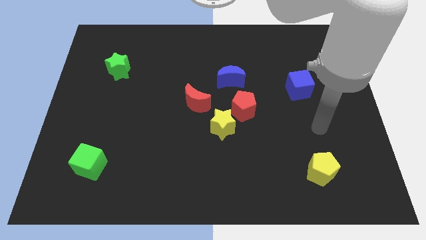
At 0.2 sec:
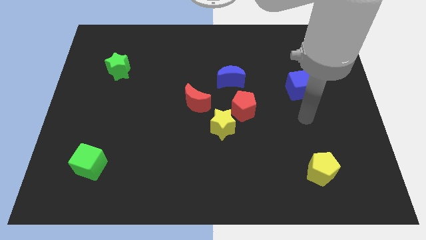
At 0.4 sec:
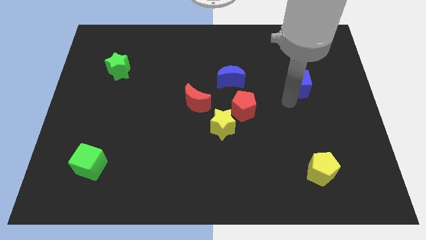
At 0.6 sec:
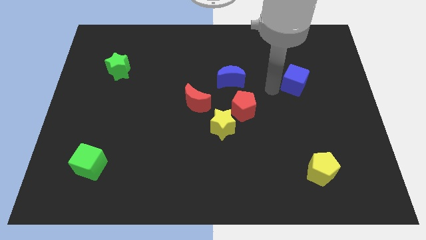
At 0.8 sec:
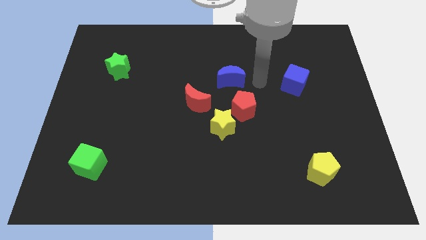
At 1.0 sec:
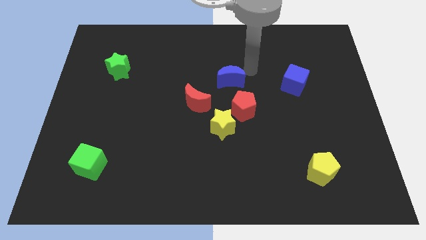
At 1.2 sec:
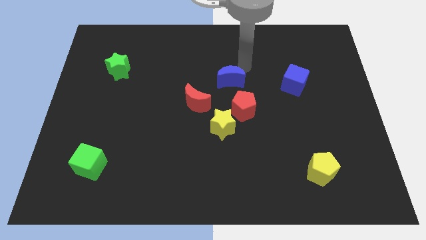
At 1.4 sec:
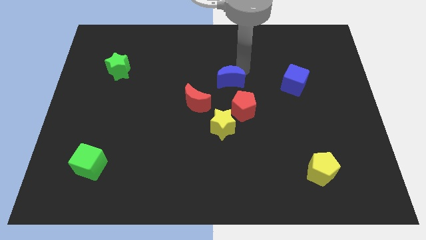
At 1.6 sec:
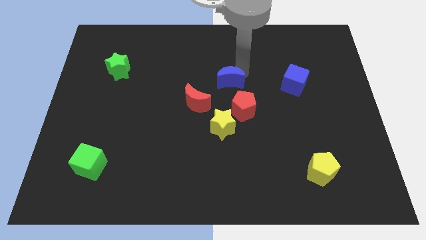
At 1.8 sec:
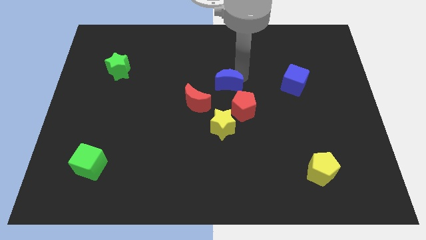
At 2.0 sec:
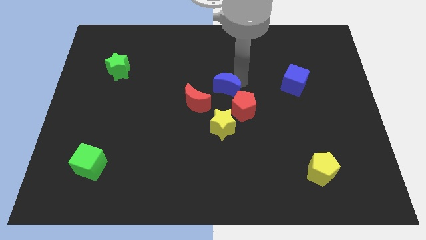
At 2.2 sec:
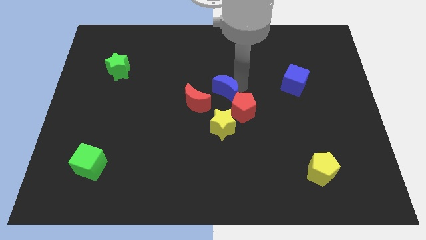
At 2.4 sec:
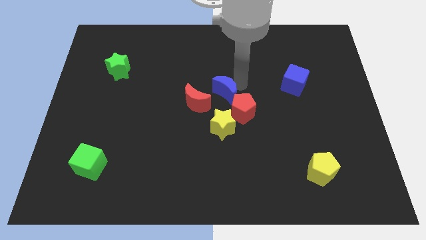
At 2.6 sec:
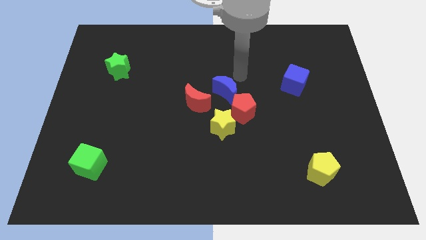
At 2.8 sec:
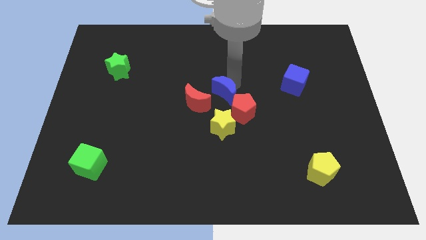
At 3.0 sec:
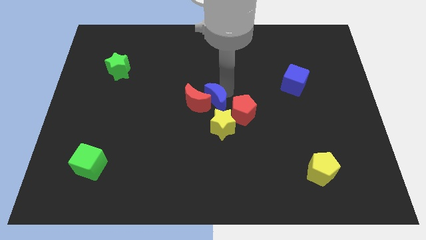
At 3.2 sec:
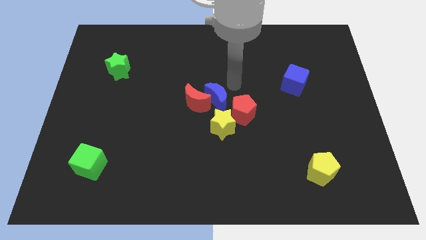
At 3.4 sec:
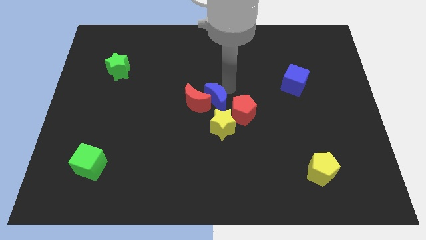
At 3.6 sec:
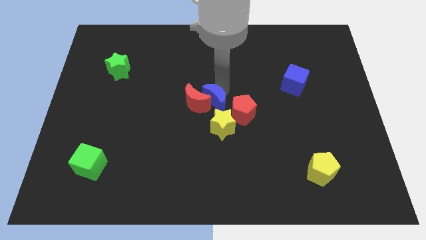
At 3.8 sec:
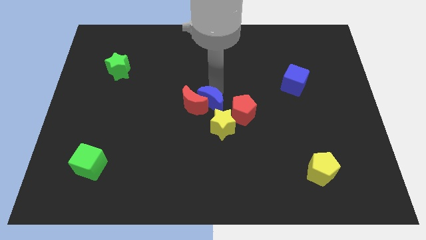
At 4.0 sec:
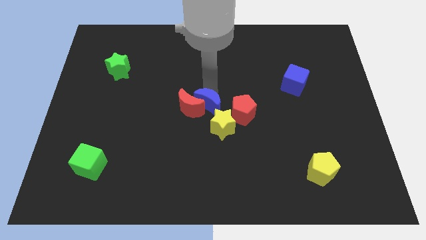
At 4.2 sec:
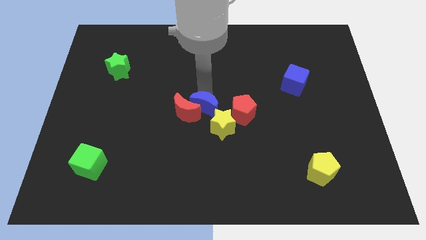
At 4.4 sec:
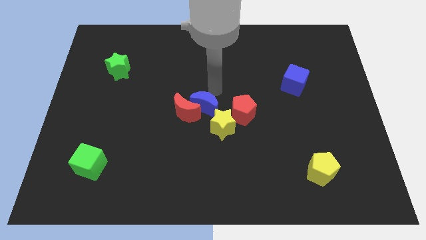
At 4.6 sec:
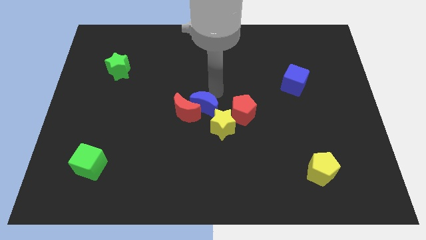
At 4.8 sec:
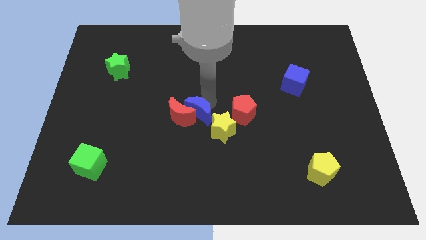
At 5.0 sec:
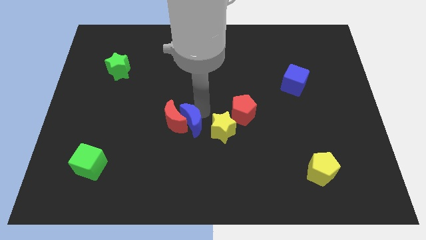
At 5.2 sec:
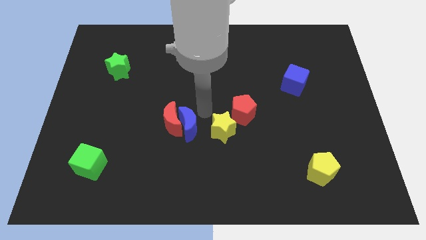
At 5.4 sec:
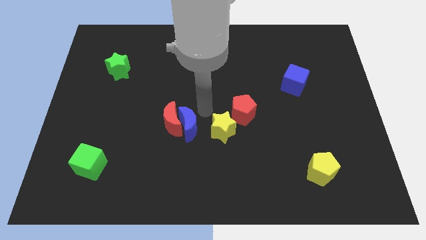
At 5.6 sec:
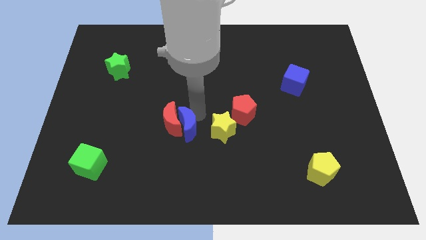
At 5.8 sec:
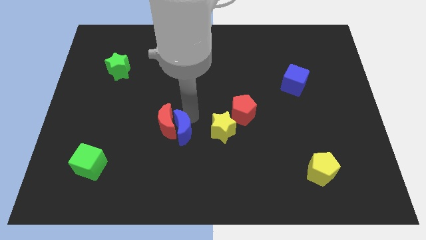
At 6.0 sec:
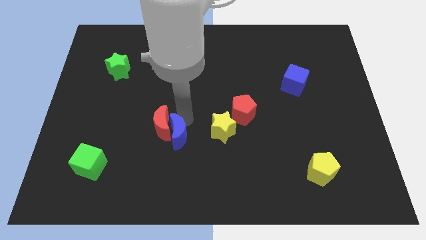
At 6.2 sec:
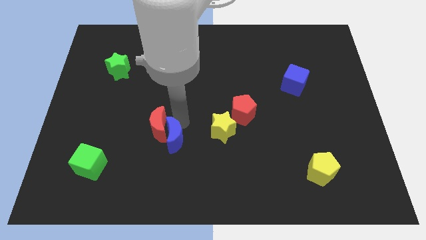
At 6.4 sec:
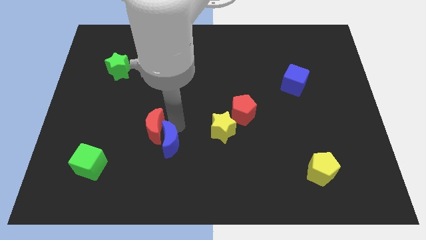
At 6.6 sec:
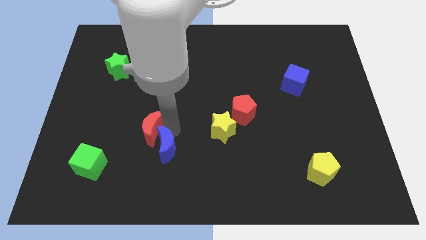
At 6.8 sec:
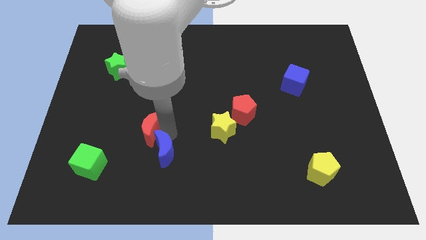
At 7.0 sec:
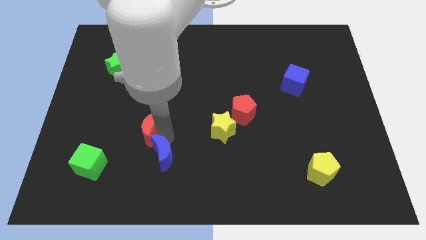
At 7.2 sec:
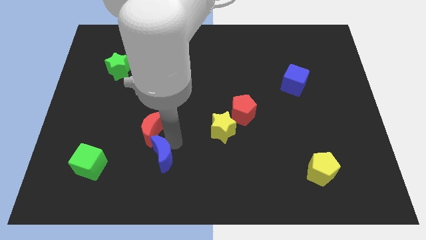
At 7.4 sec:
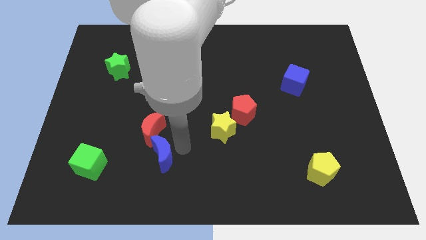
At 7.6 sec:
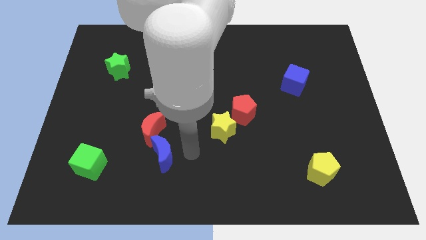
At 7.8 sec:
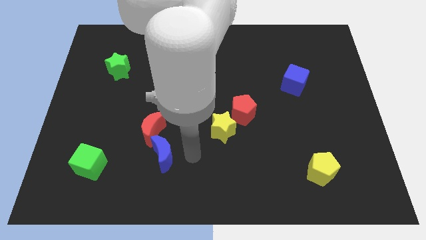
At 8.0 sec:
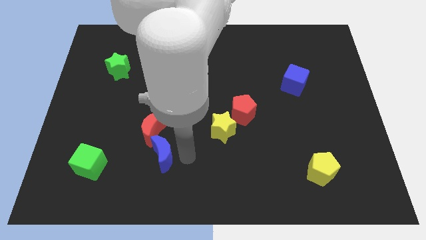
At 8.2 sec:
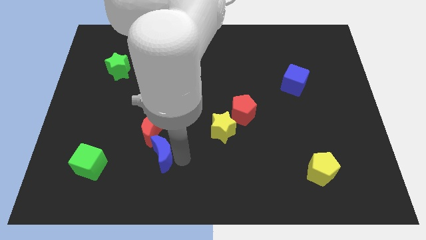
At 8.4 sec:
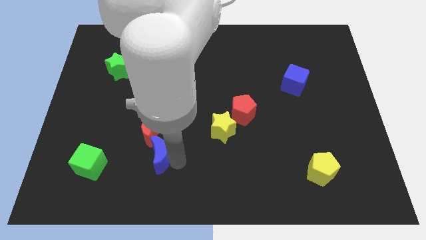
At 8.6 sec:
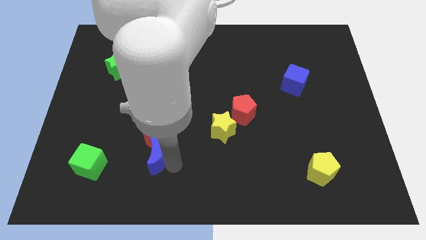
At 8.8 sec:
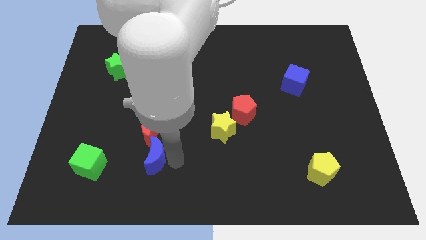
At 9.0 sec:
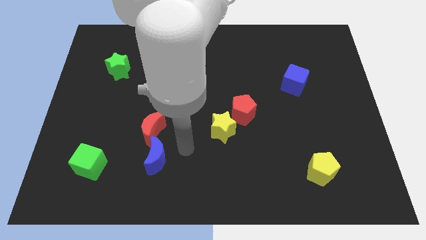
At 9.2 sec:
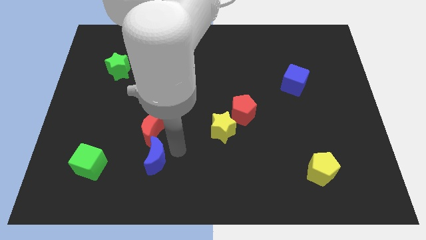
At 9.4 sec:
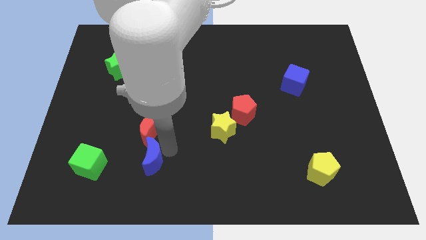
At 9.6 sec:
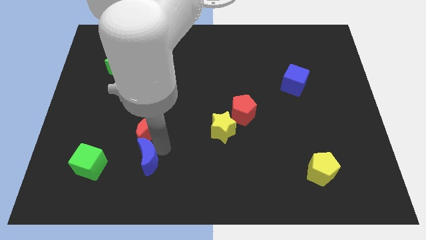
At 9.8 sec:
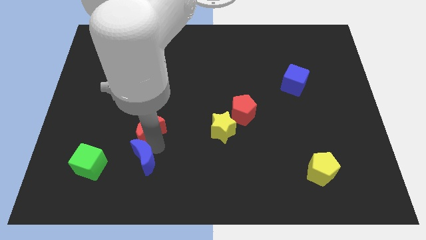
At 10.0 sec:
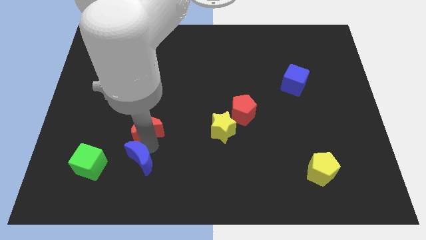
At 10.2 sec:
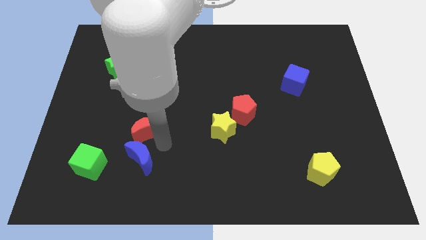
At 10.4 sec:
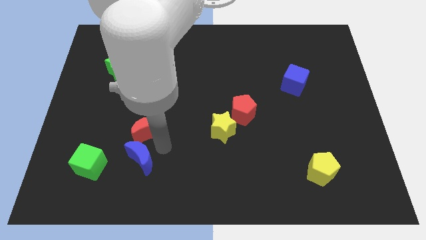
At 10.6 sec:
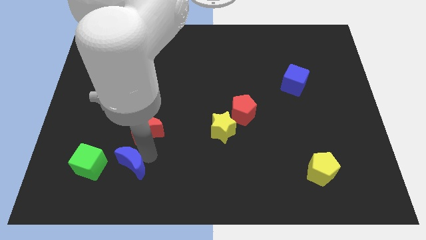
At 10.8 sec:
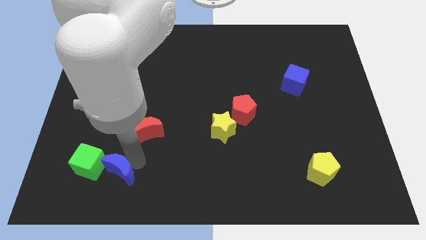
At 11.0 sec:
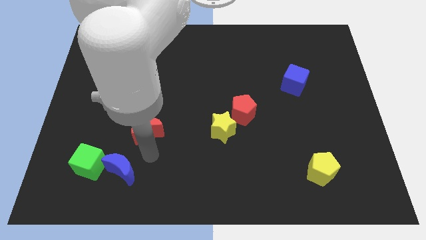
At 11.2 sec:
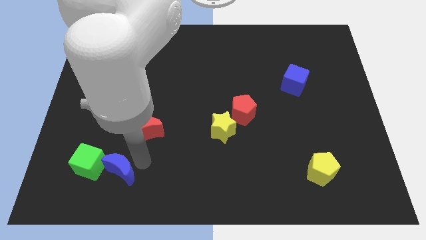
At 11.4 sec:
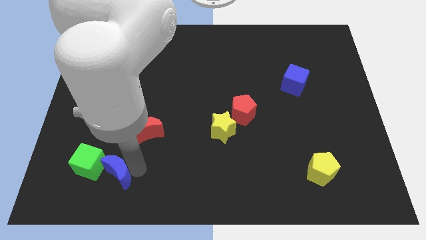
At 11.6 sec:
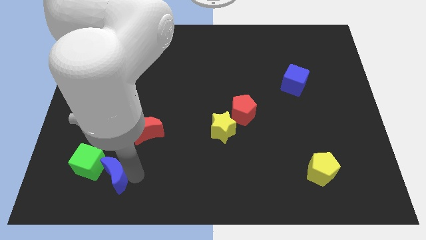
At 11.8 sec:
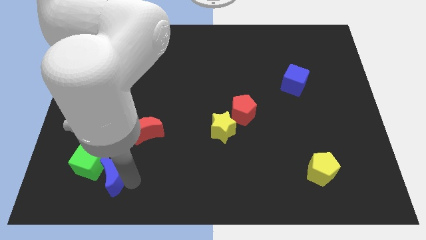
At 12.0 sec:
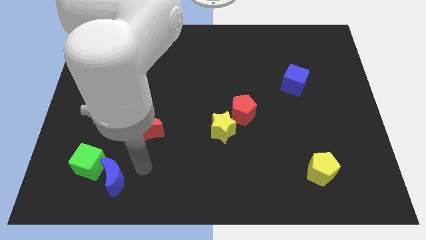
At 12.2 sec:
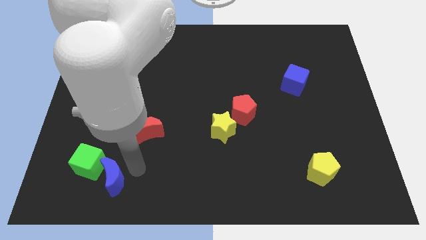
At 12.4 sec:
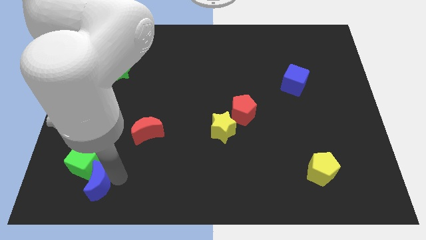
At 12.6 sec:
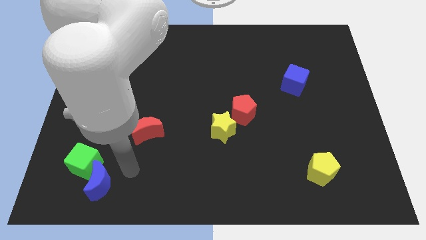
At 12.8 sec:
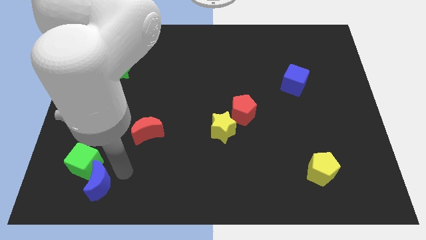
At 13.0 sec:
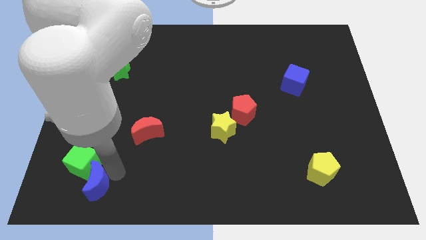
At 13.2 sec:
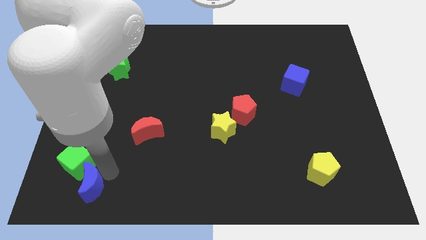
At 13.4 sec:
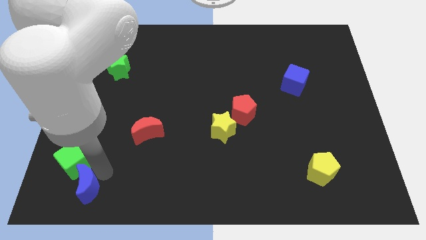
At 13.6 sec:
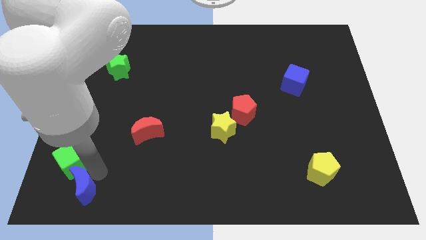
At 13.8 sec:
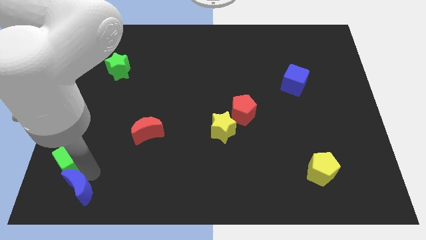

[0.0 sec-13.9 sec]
slide the blue moon to the bottom left corner
